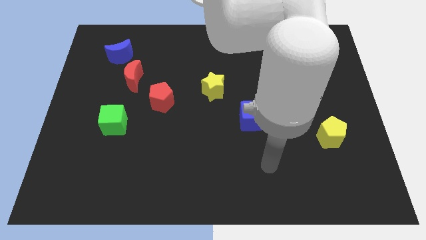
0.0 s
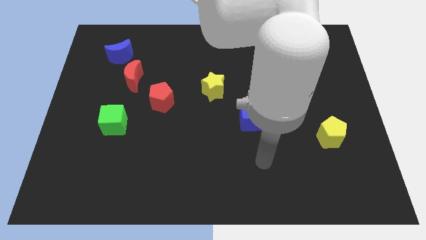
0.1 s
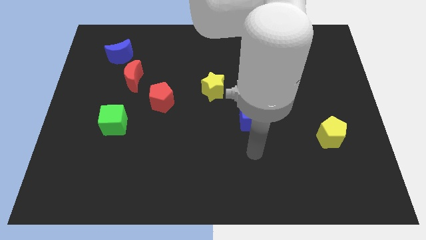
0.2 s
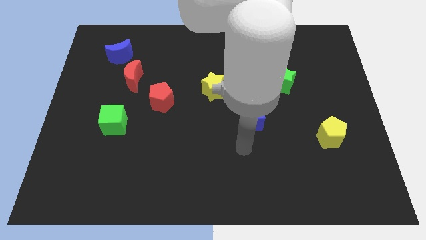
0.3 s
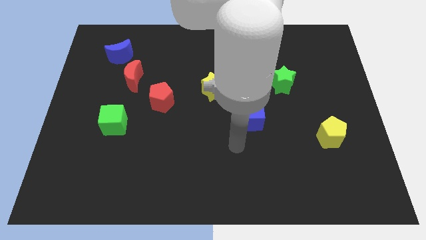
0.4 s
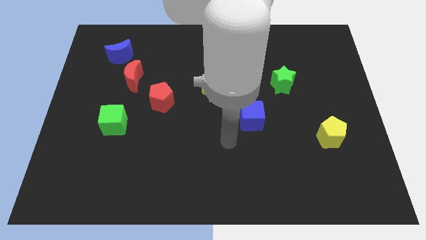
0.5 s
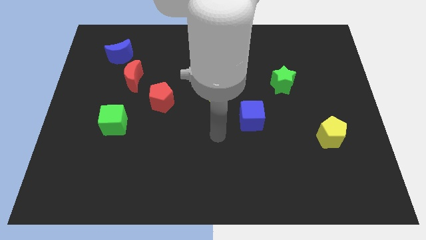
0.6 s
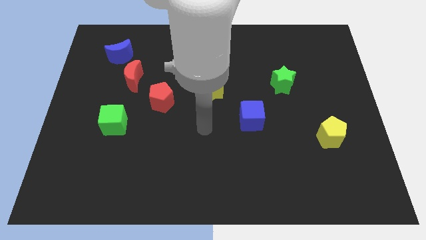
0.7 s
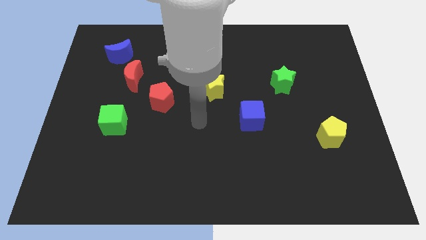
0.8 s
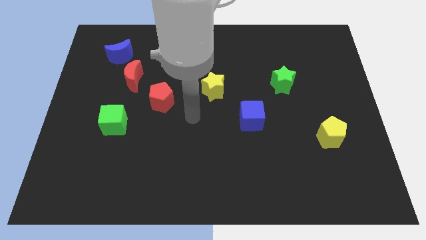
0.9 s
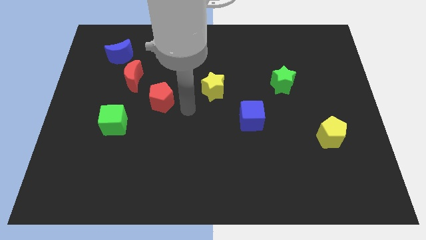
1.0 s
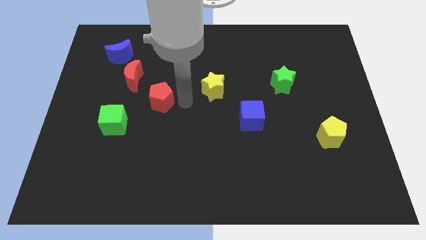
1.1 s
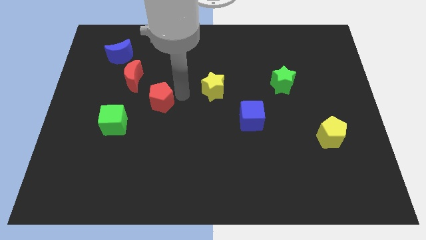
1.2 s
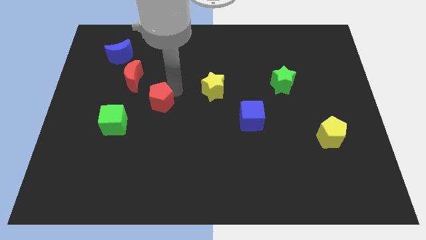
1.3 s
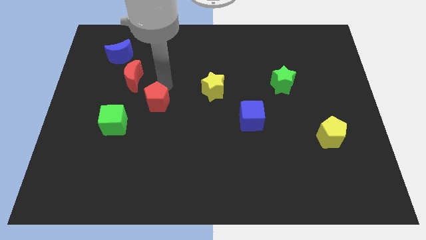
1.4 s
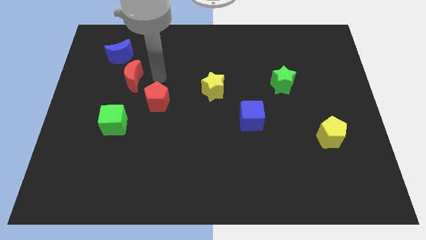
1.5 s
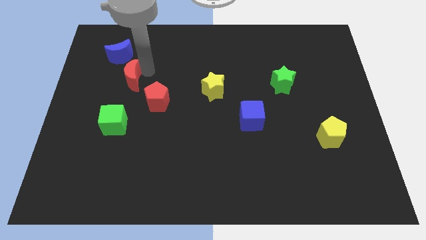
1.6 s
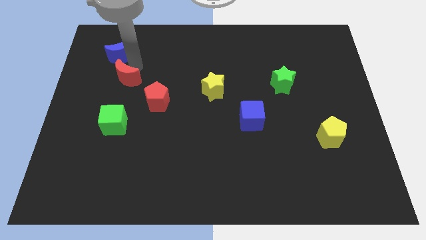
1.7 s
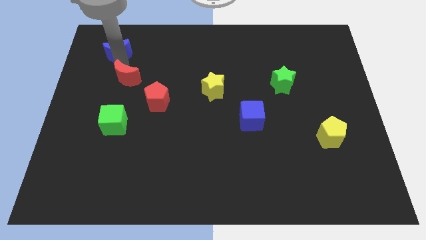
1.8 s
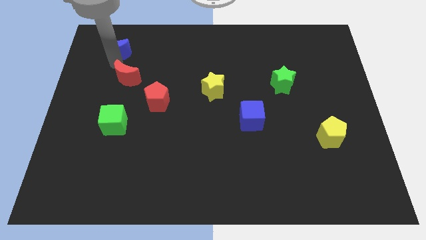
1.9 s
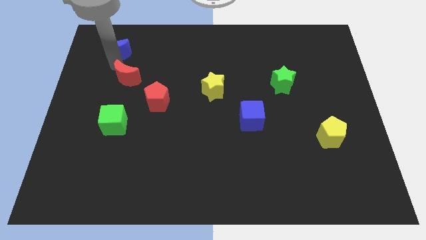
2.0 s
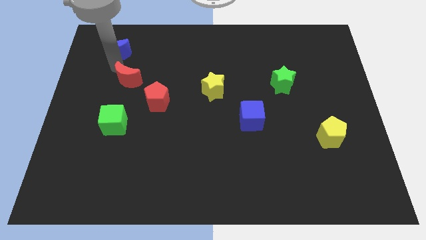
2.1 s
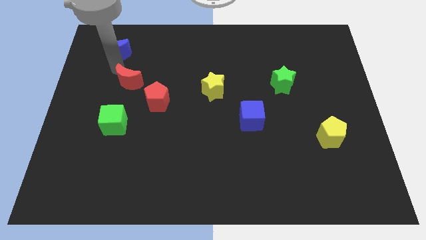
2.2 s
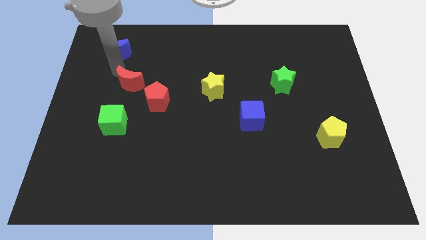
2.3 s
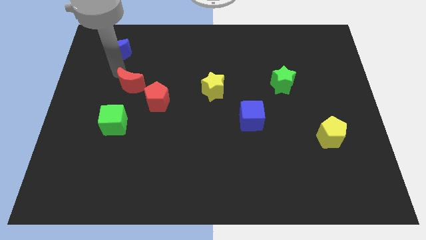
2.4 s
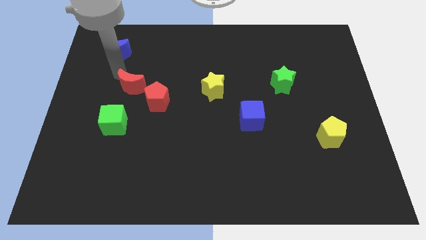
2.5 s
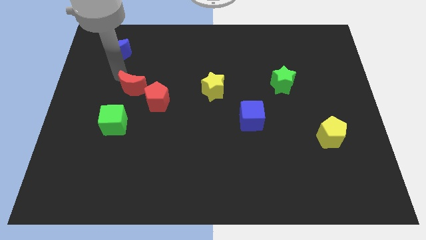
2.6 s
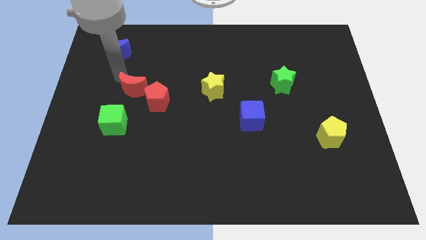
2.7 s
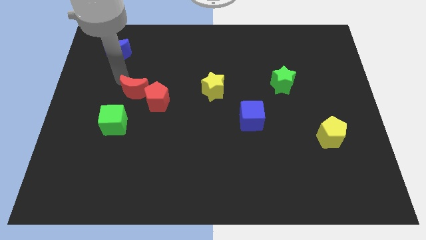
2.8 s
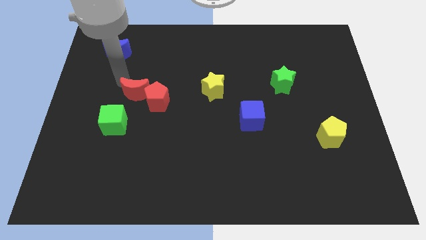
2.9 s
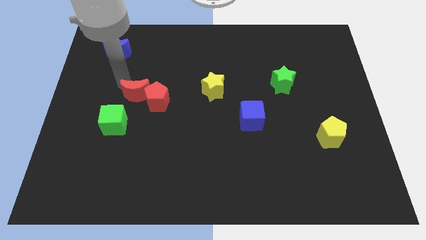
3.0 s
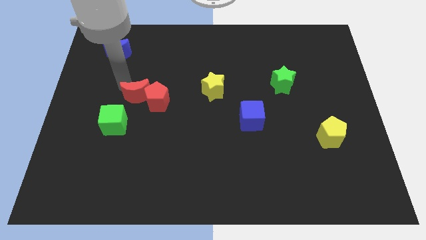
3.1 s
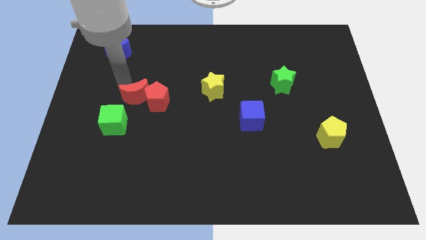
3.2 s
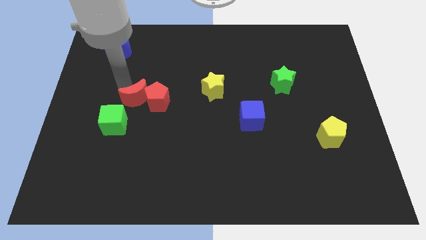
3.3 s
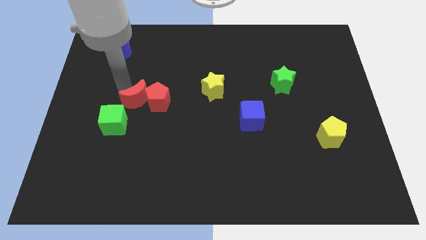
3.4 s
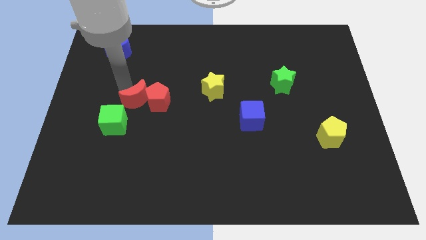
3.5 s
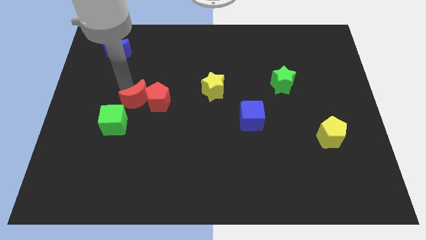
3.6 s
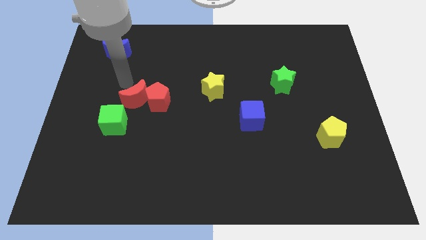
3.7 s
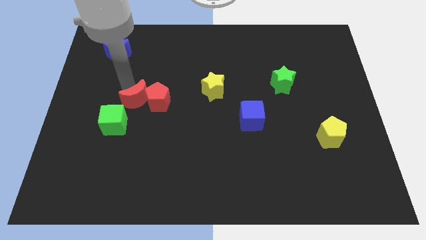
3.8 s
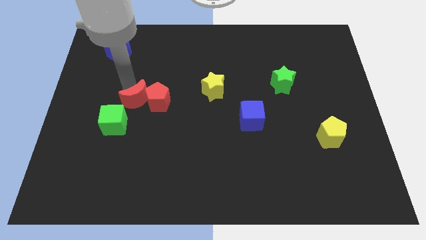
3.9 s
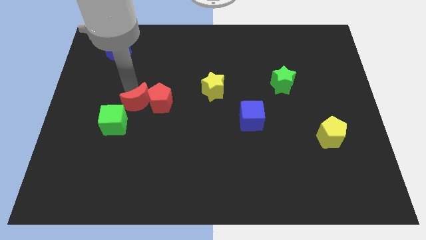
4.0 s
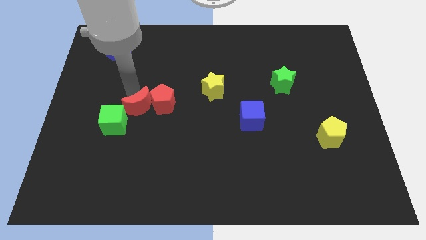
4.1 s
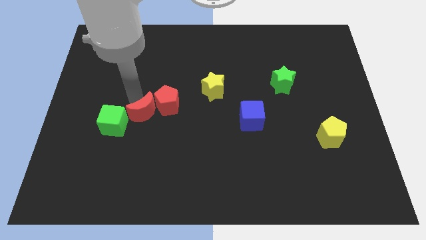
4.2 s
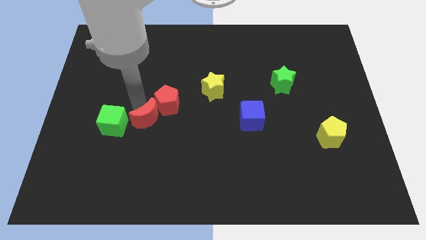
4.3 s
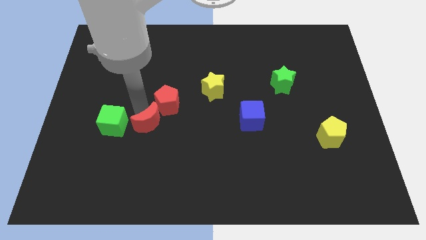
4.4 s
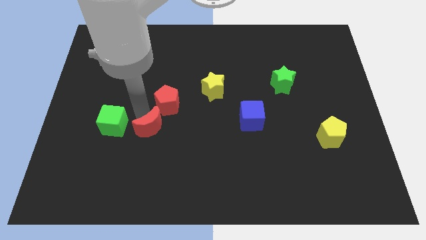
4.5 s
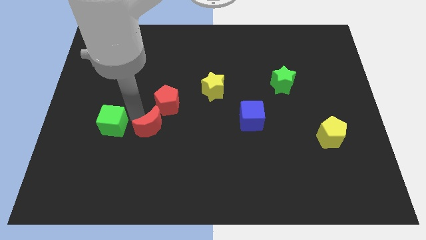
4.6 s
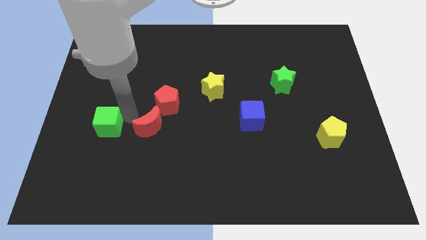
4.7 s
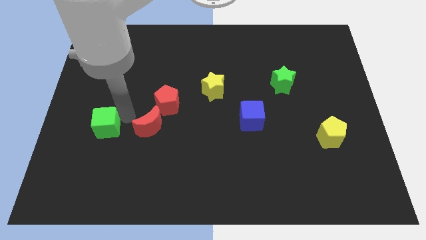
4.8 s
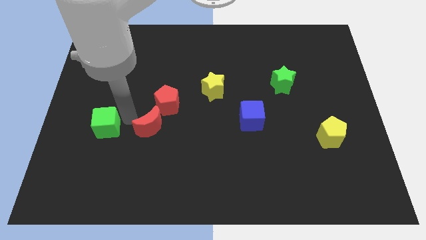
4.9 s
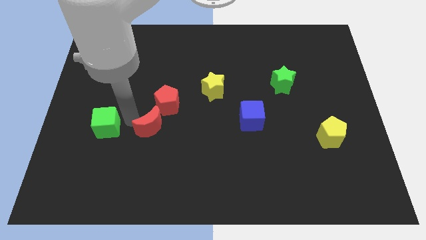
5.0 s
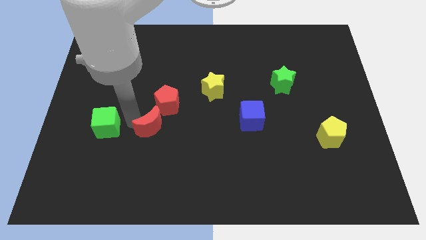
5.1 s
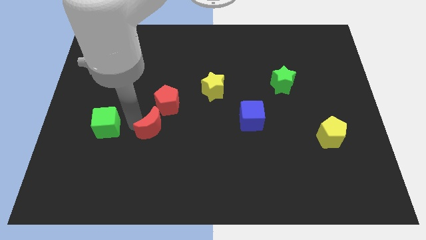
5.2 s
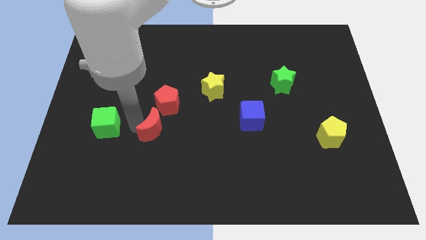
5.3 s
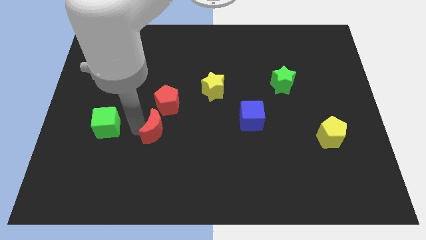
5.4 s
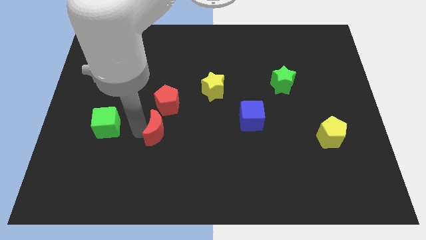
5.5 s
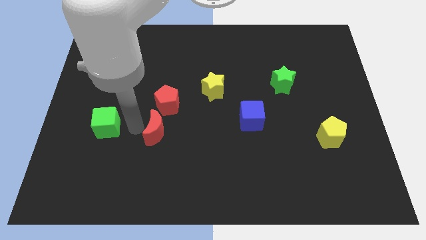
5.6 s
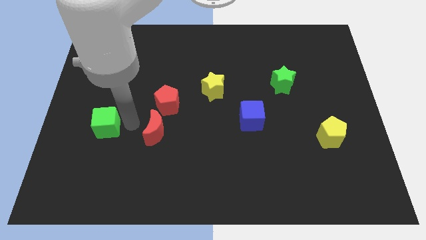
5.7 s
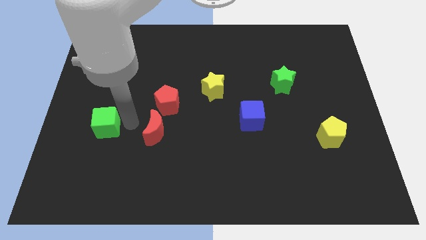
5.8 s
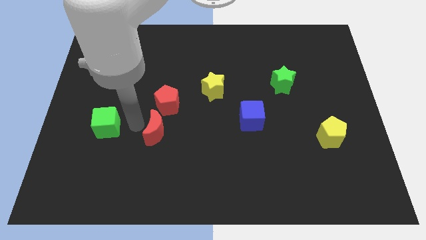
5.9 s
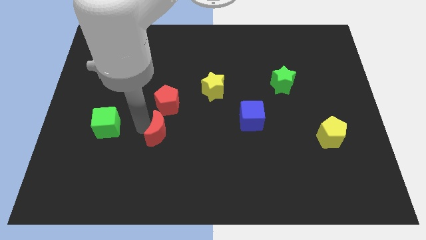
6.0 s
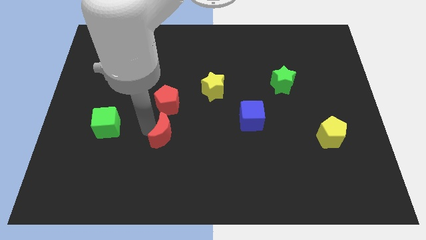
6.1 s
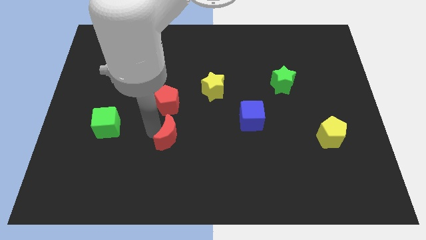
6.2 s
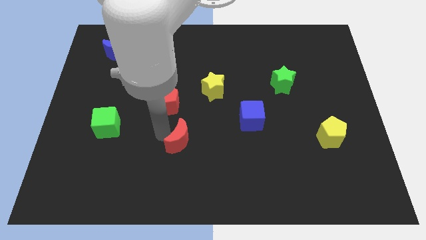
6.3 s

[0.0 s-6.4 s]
move the red moon downwards and then right

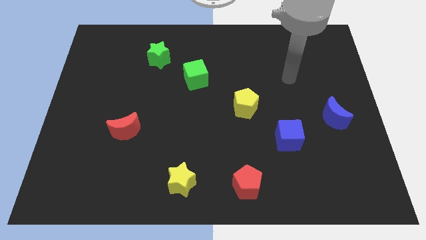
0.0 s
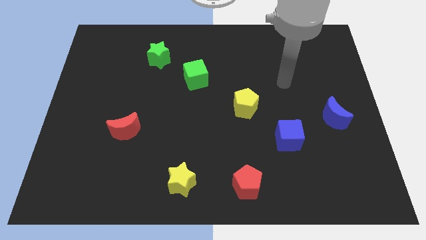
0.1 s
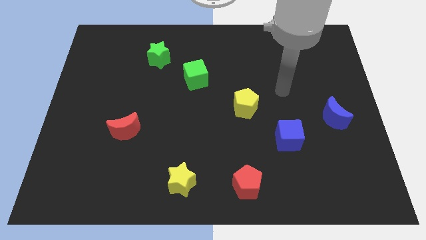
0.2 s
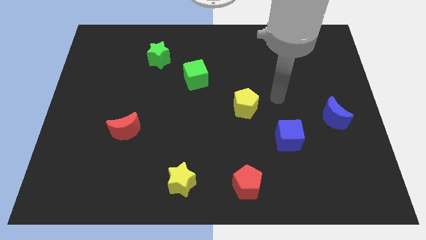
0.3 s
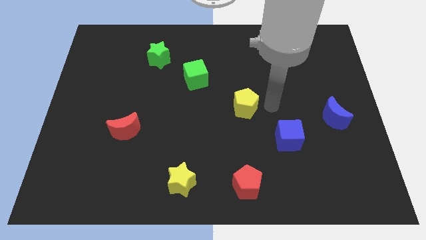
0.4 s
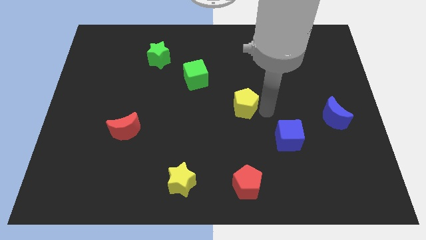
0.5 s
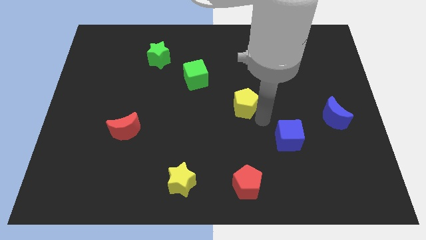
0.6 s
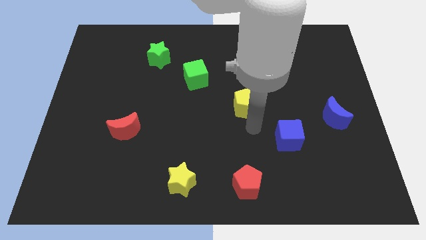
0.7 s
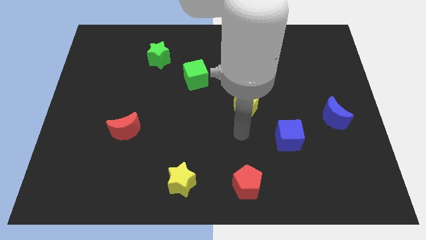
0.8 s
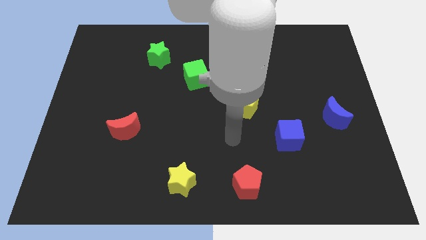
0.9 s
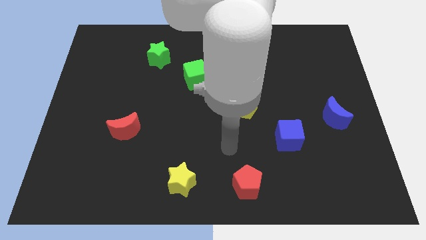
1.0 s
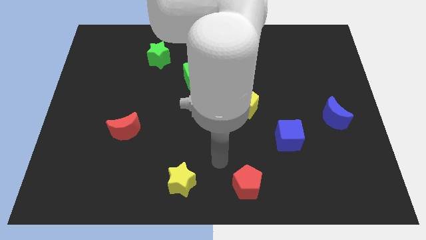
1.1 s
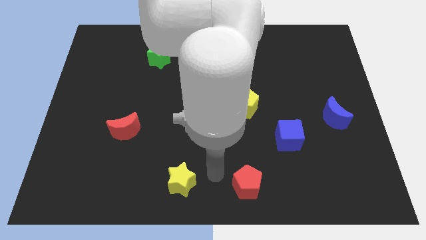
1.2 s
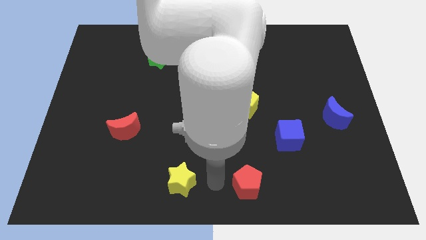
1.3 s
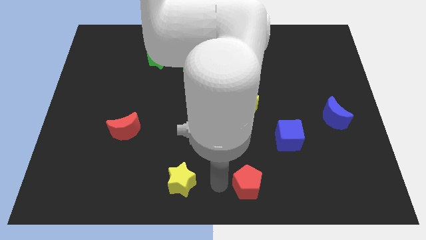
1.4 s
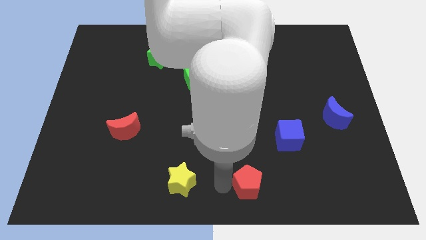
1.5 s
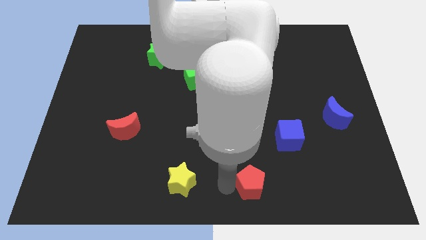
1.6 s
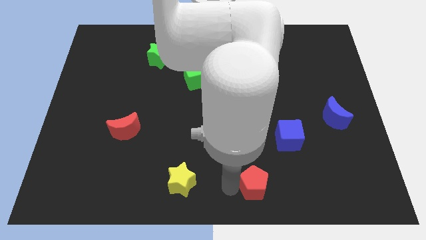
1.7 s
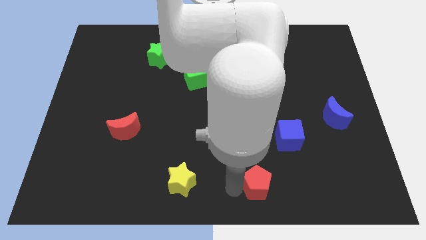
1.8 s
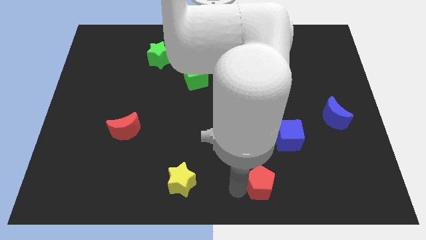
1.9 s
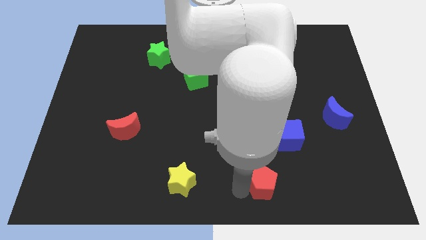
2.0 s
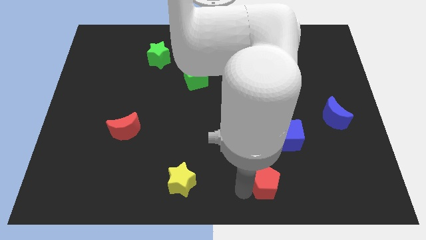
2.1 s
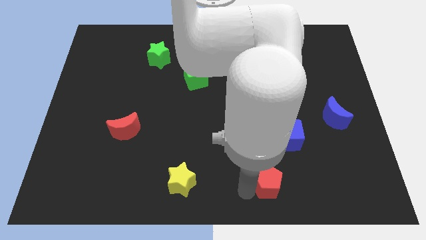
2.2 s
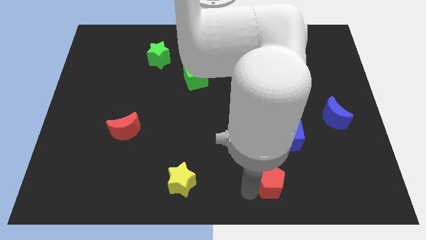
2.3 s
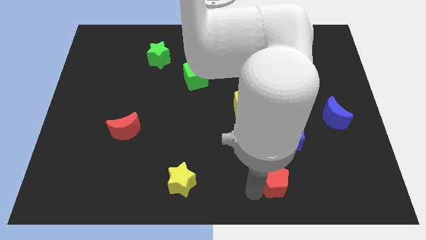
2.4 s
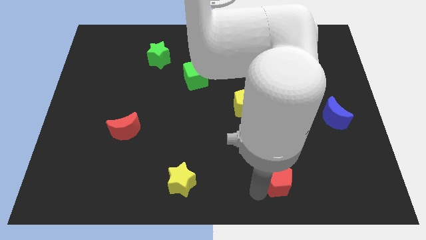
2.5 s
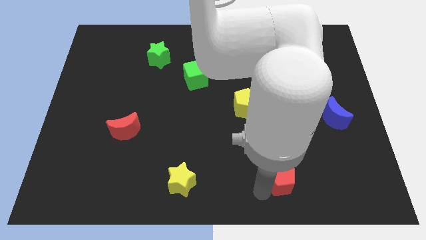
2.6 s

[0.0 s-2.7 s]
move the red pentagon a bit to the right
